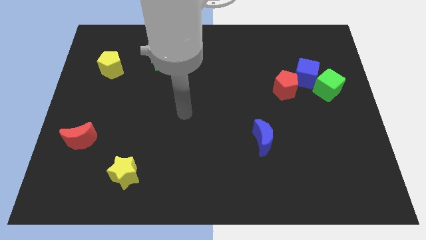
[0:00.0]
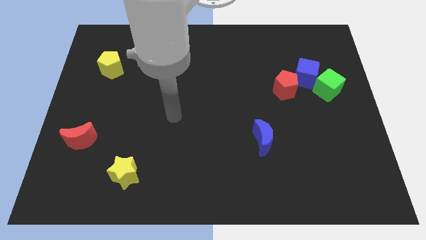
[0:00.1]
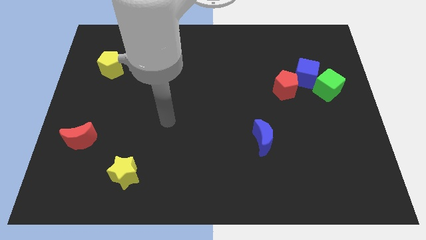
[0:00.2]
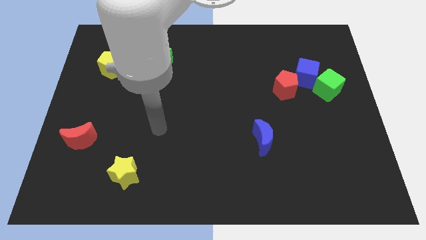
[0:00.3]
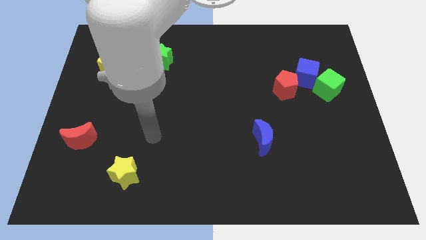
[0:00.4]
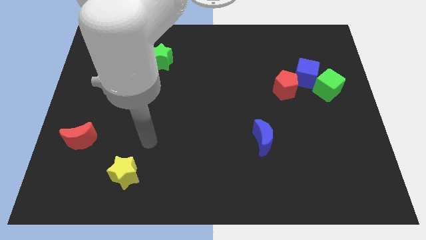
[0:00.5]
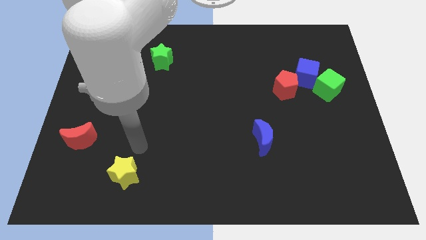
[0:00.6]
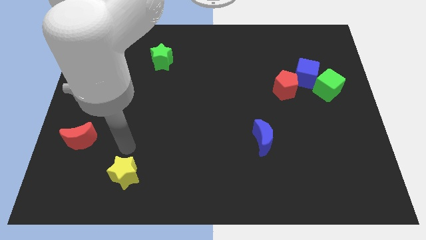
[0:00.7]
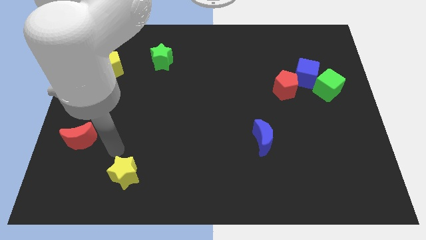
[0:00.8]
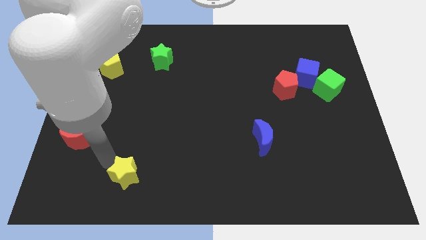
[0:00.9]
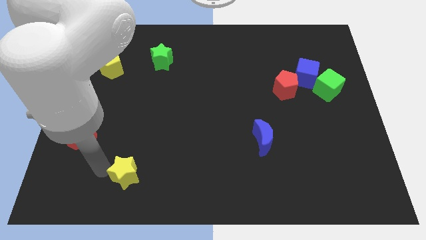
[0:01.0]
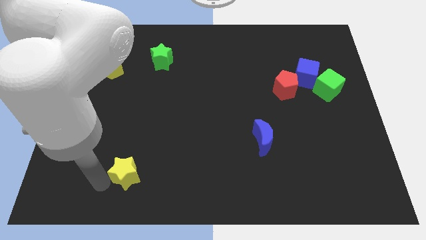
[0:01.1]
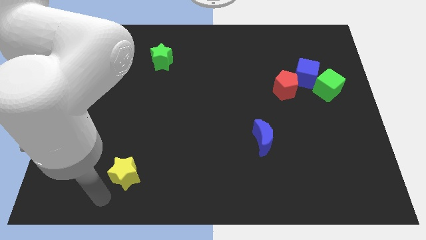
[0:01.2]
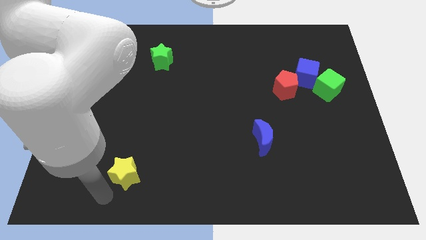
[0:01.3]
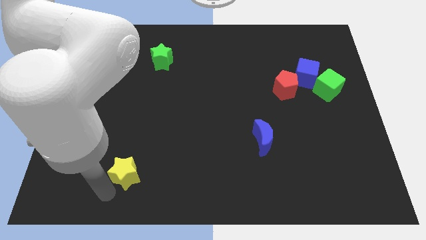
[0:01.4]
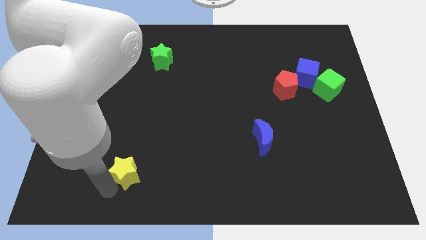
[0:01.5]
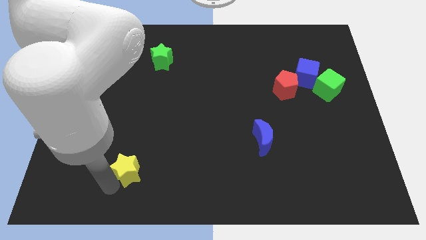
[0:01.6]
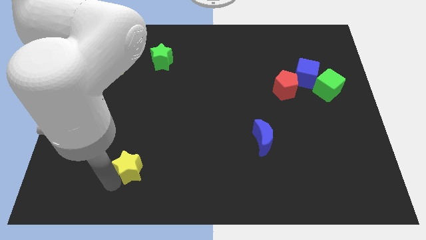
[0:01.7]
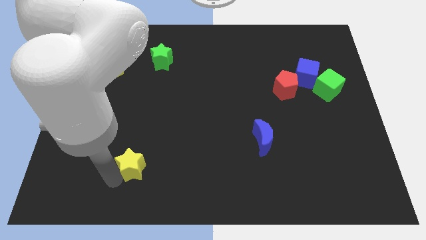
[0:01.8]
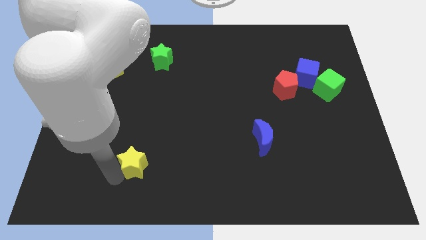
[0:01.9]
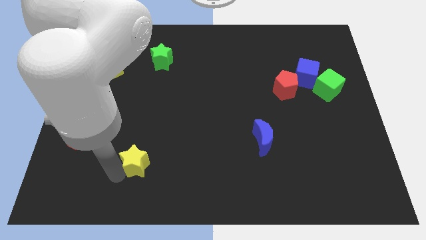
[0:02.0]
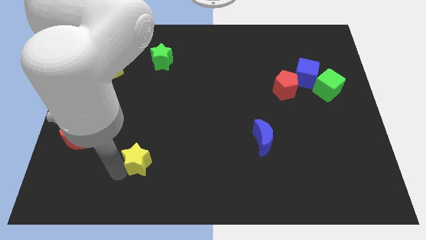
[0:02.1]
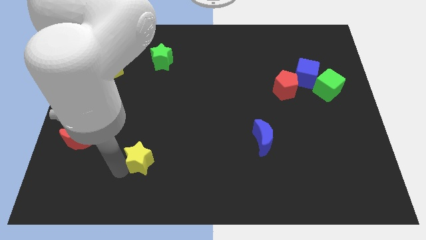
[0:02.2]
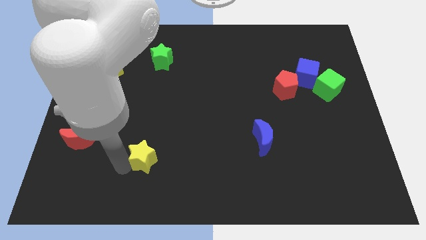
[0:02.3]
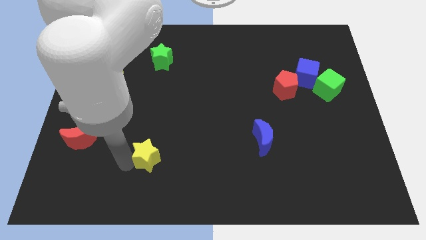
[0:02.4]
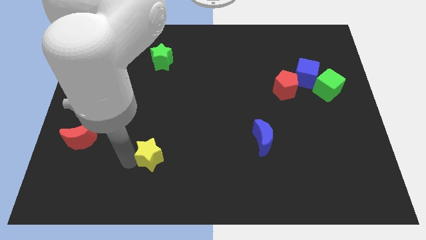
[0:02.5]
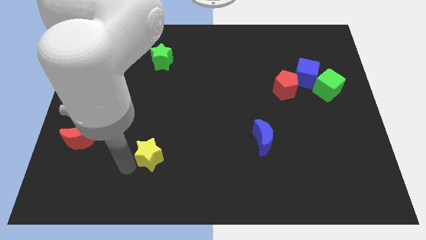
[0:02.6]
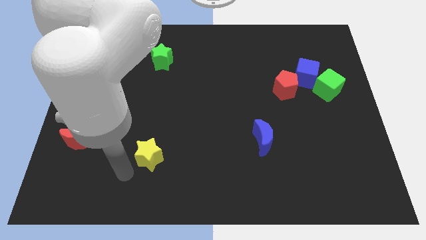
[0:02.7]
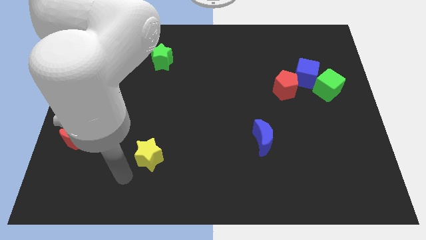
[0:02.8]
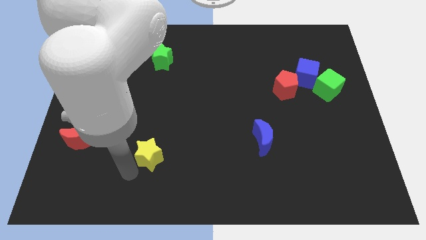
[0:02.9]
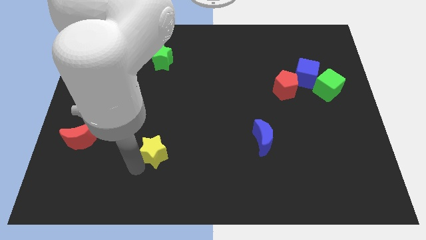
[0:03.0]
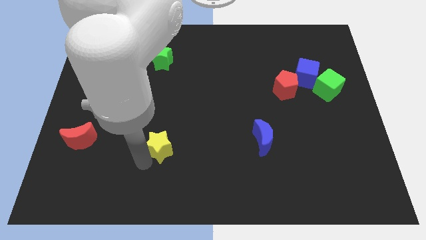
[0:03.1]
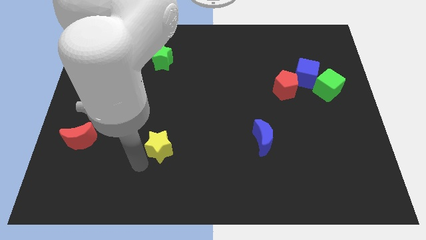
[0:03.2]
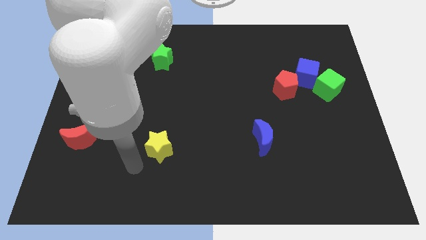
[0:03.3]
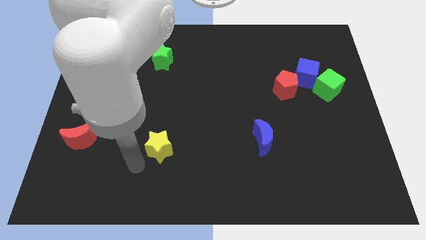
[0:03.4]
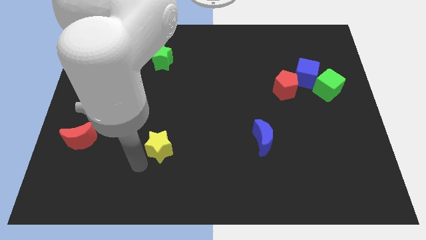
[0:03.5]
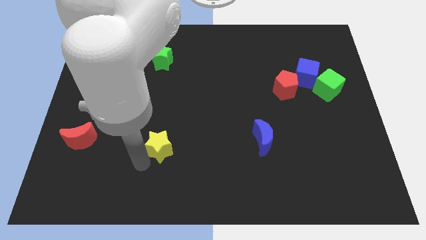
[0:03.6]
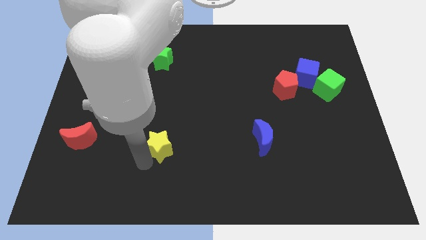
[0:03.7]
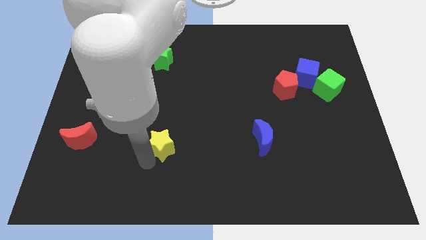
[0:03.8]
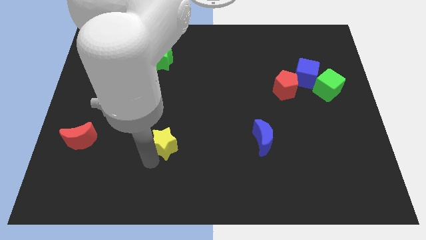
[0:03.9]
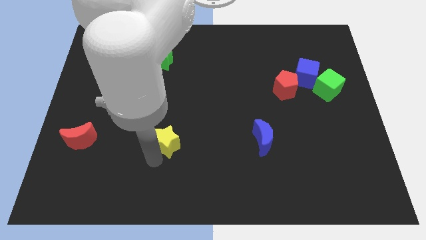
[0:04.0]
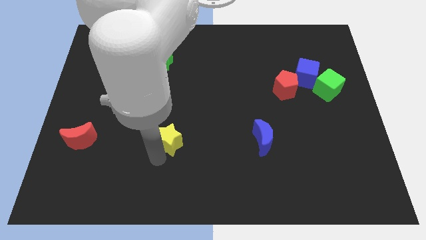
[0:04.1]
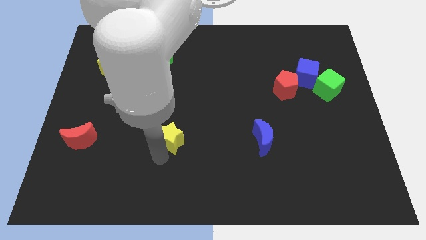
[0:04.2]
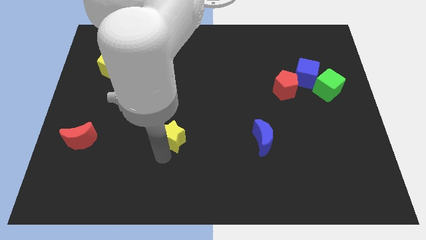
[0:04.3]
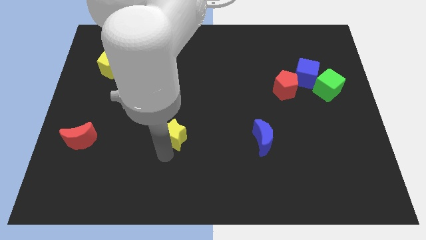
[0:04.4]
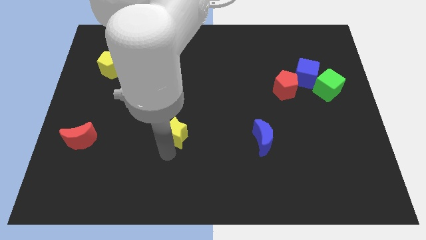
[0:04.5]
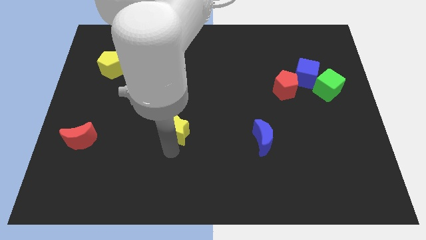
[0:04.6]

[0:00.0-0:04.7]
put the yellow star to the middle

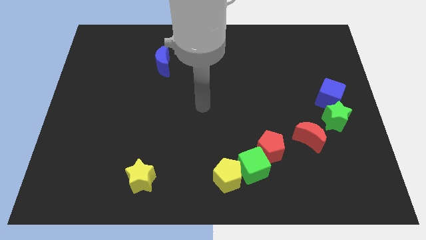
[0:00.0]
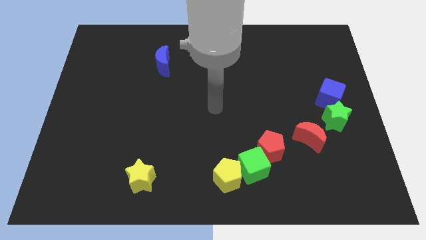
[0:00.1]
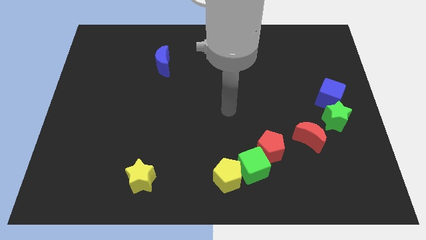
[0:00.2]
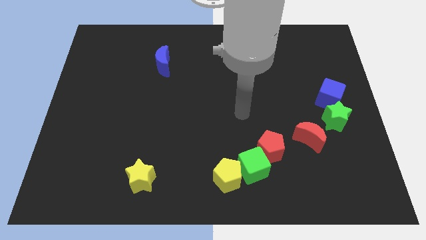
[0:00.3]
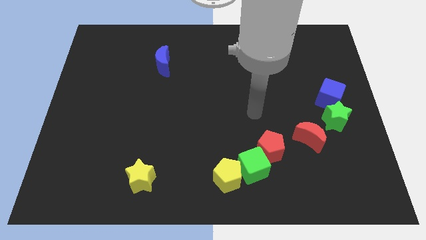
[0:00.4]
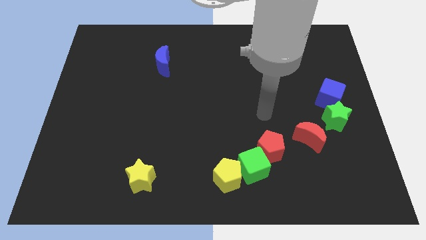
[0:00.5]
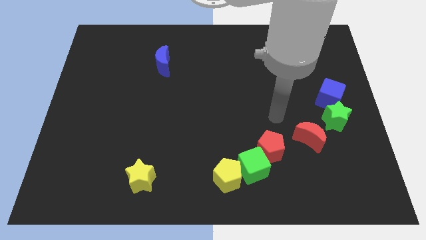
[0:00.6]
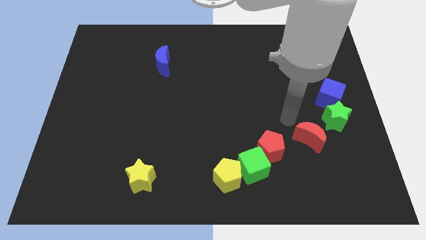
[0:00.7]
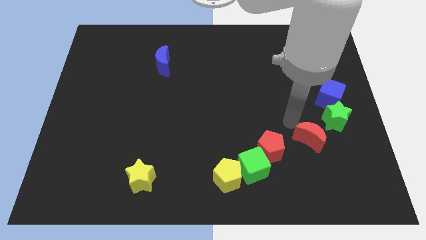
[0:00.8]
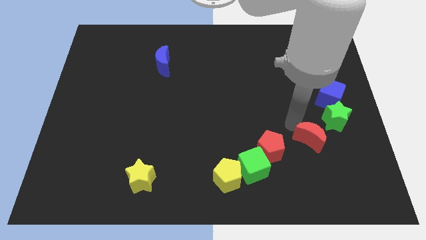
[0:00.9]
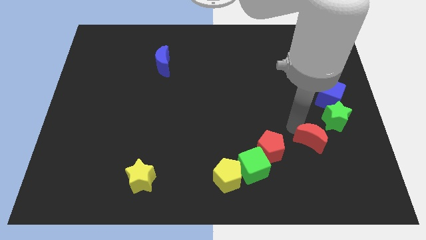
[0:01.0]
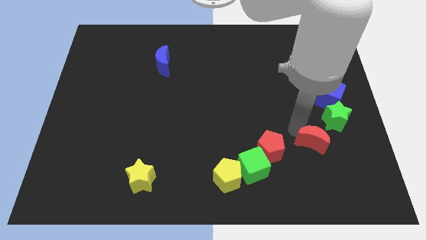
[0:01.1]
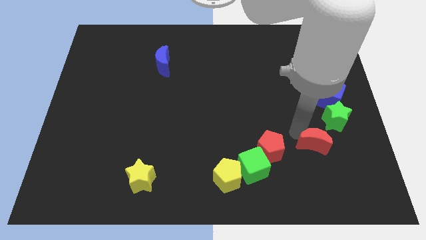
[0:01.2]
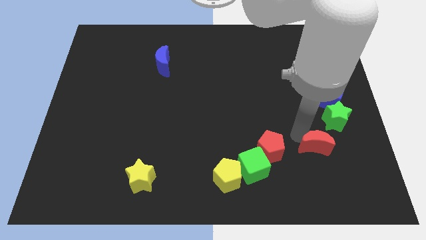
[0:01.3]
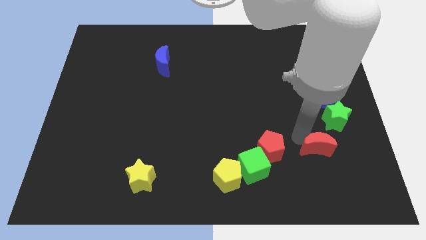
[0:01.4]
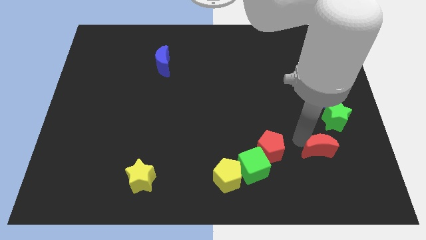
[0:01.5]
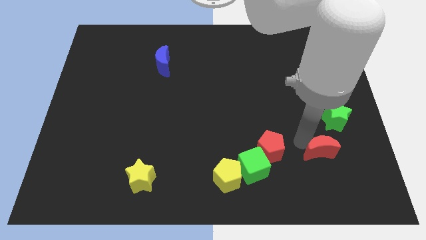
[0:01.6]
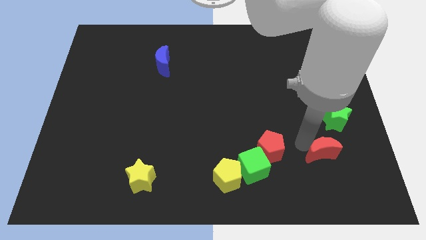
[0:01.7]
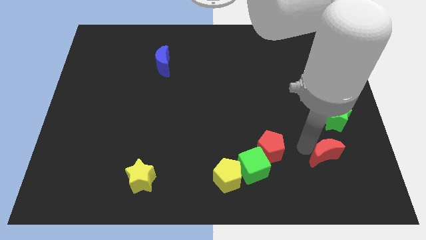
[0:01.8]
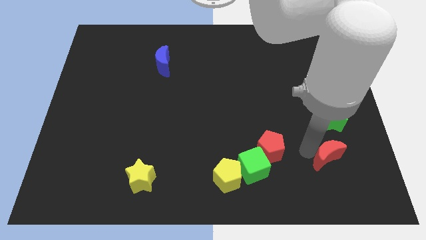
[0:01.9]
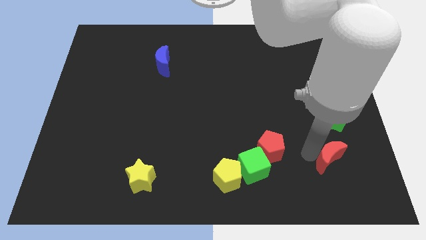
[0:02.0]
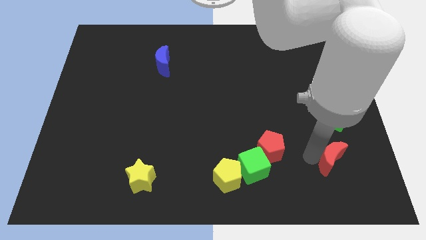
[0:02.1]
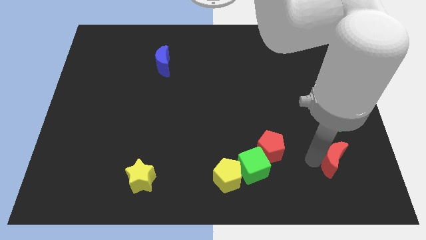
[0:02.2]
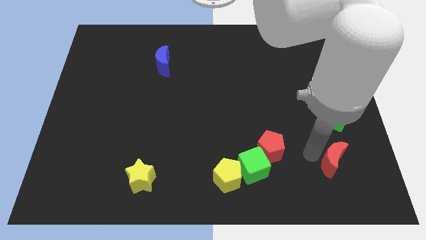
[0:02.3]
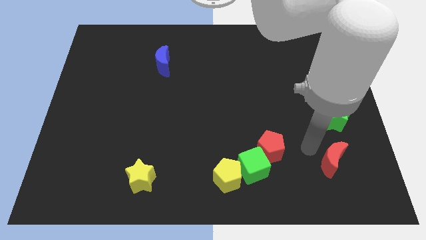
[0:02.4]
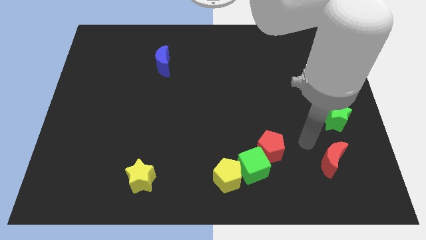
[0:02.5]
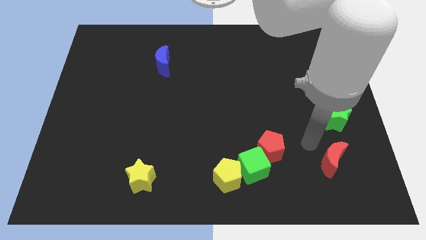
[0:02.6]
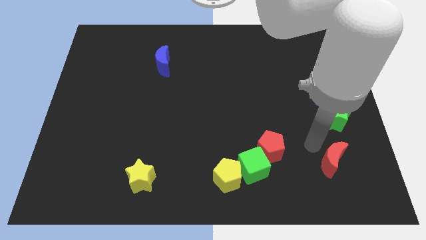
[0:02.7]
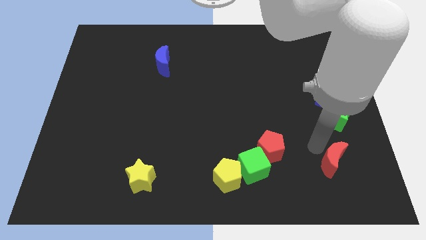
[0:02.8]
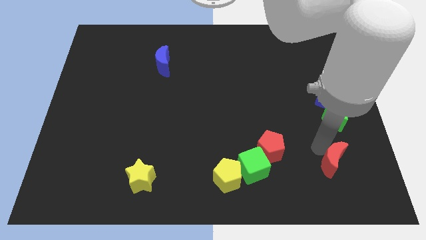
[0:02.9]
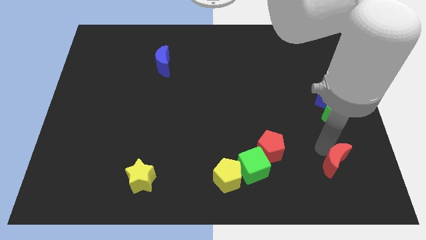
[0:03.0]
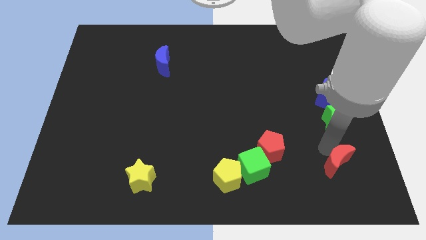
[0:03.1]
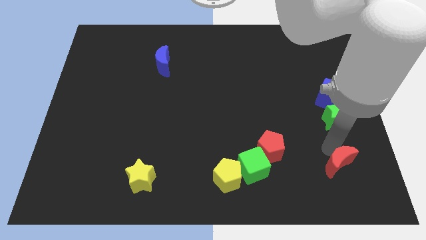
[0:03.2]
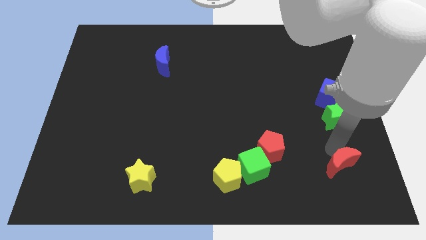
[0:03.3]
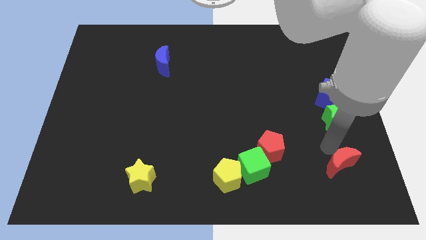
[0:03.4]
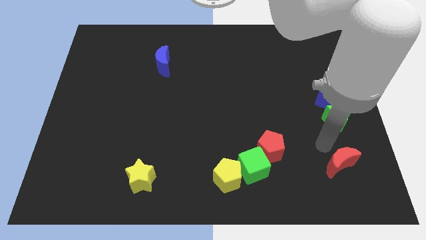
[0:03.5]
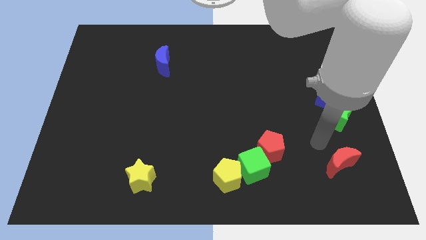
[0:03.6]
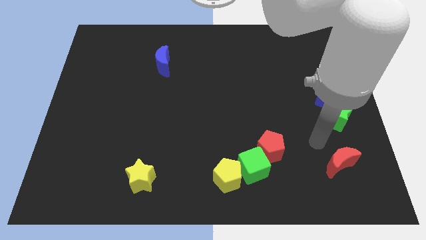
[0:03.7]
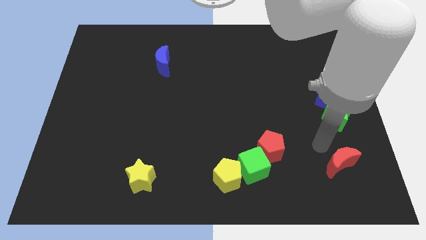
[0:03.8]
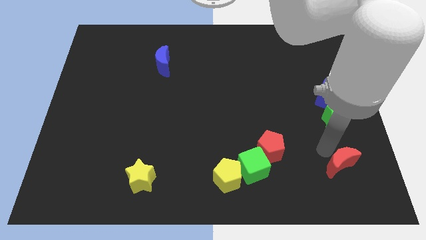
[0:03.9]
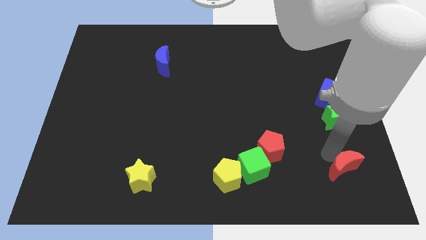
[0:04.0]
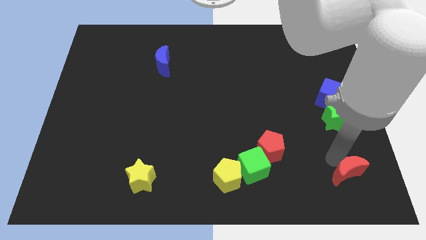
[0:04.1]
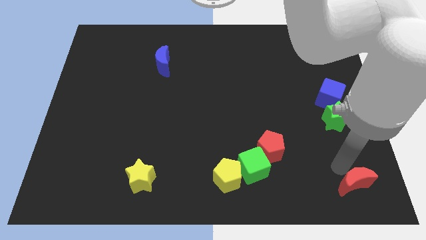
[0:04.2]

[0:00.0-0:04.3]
slide the red moon to the lower right corner
